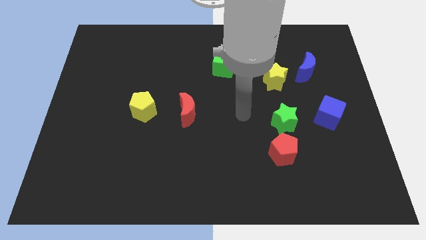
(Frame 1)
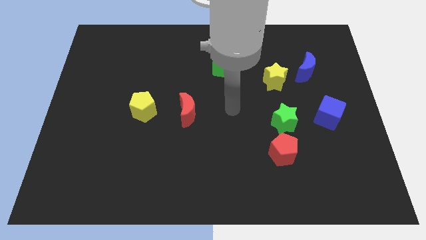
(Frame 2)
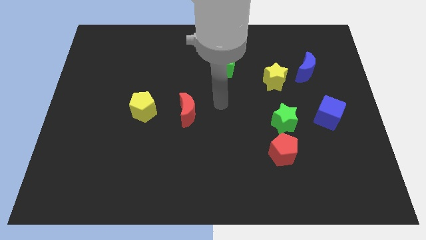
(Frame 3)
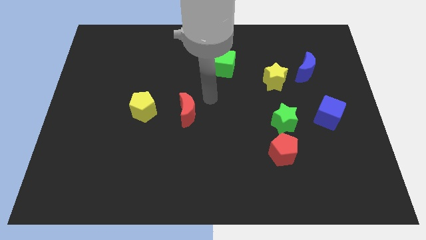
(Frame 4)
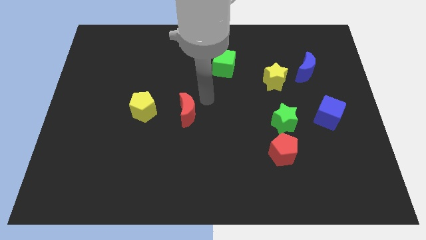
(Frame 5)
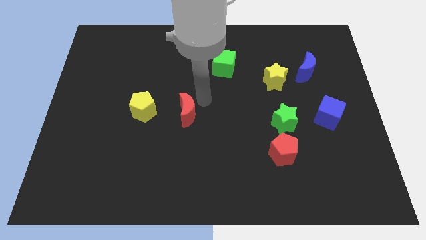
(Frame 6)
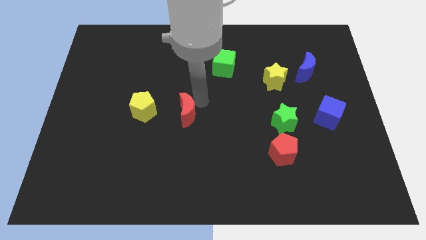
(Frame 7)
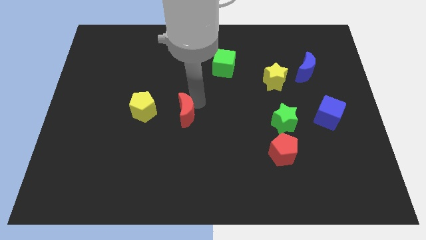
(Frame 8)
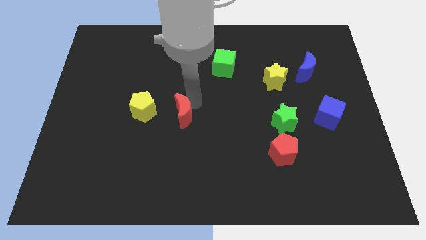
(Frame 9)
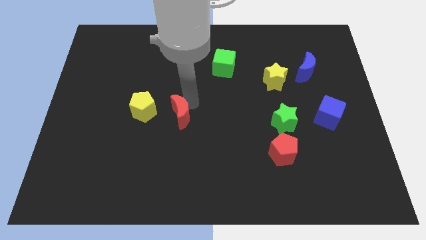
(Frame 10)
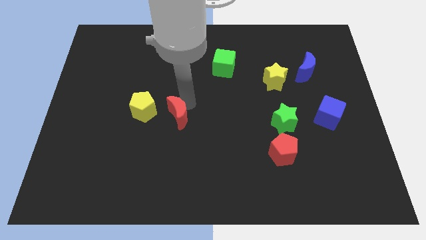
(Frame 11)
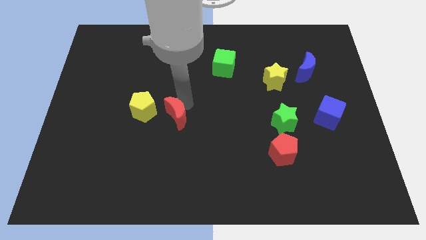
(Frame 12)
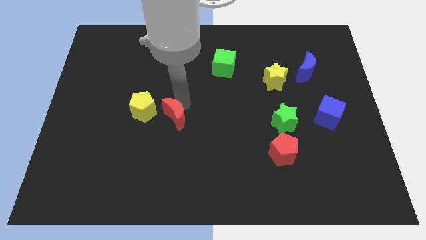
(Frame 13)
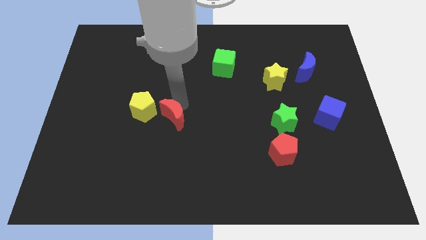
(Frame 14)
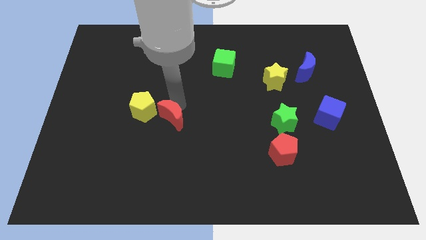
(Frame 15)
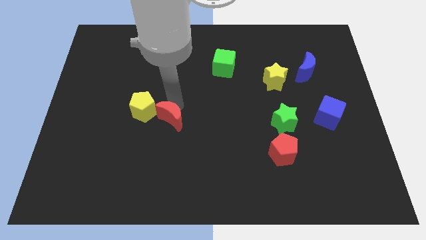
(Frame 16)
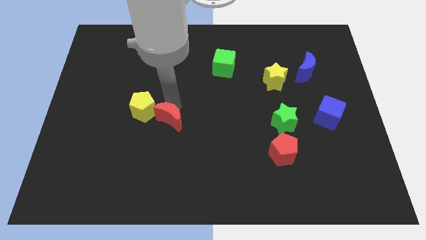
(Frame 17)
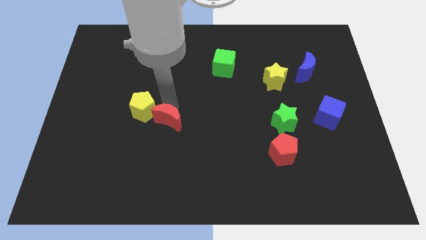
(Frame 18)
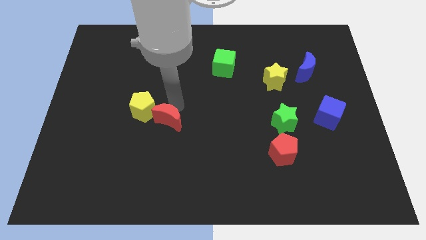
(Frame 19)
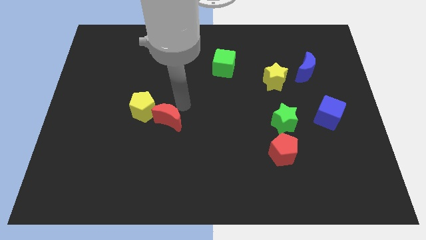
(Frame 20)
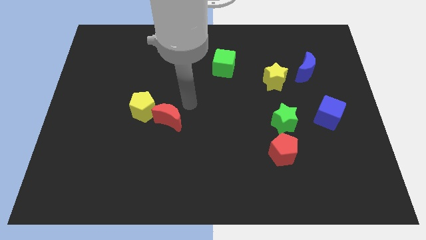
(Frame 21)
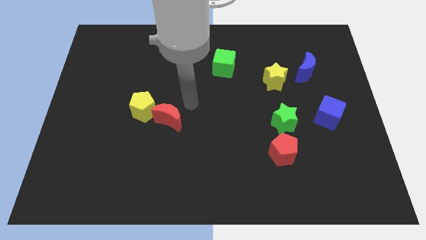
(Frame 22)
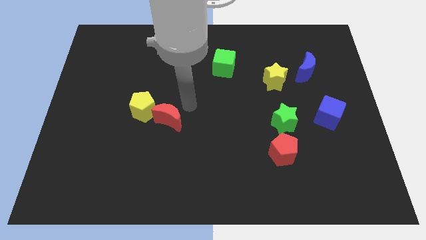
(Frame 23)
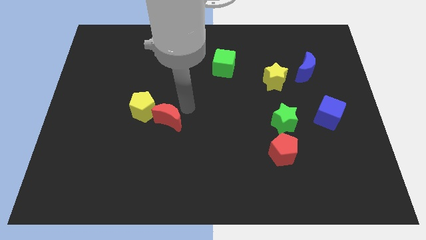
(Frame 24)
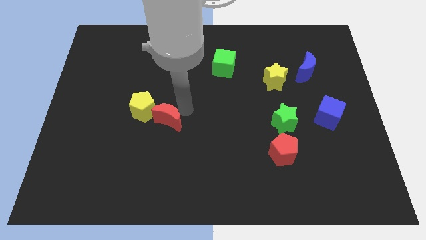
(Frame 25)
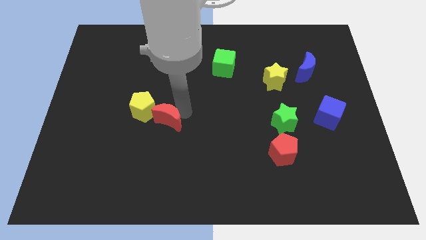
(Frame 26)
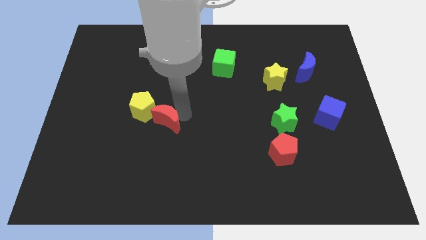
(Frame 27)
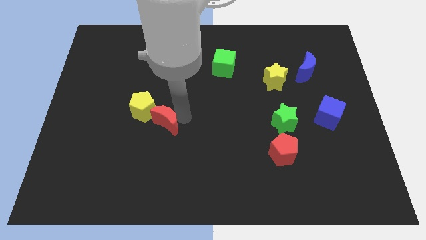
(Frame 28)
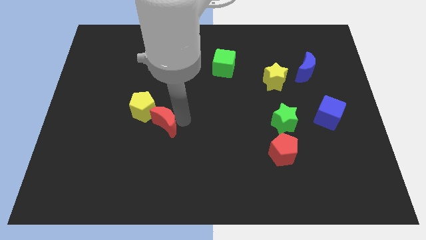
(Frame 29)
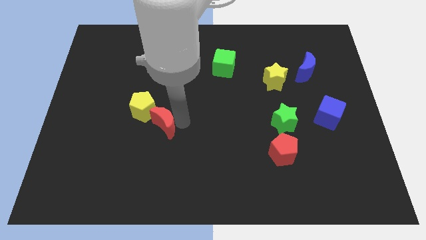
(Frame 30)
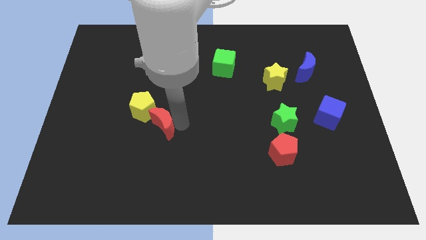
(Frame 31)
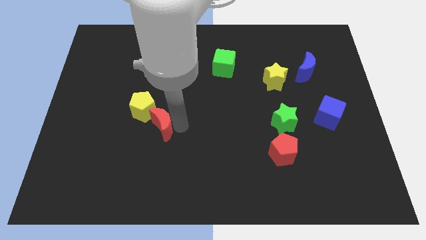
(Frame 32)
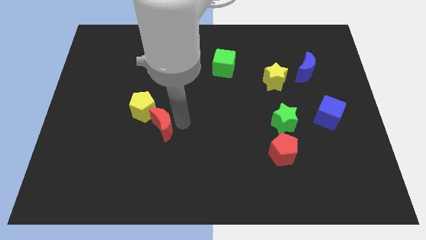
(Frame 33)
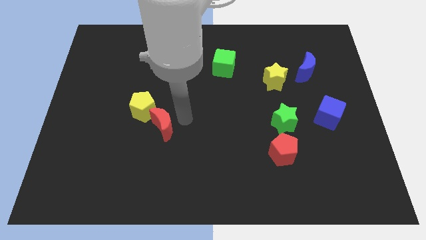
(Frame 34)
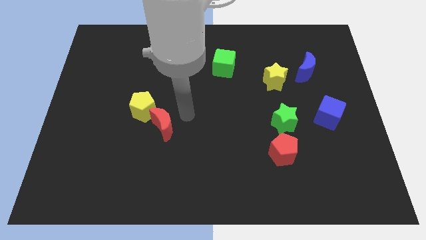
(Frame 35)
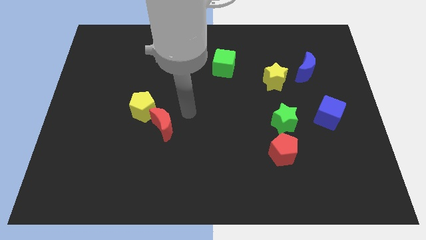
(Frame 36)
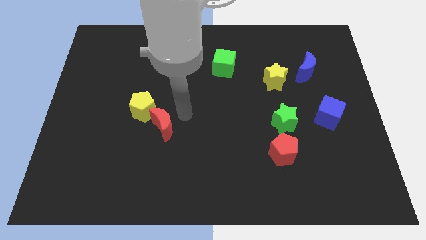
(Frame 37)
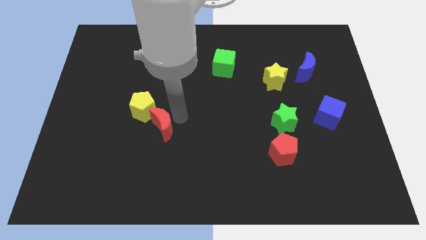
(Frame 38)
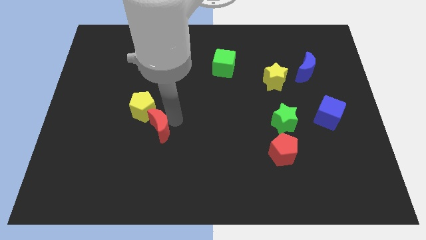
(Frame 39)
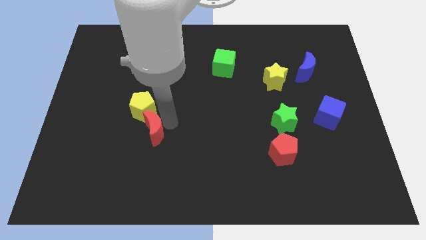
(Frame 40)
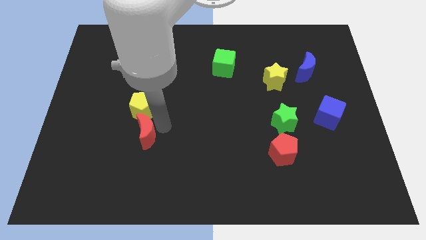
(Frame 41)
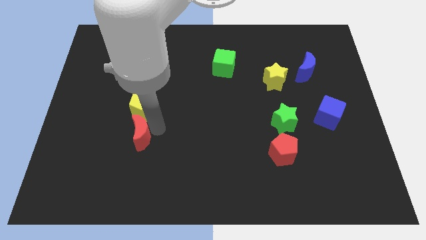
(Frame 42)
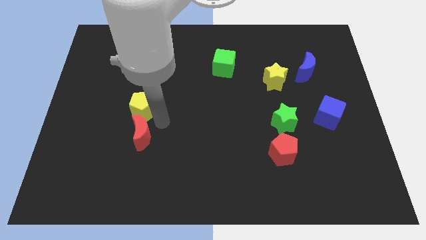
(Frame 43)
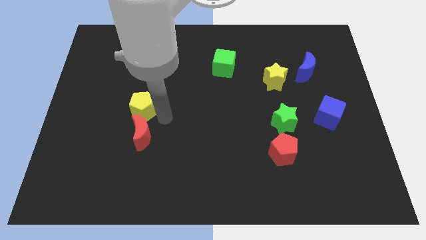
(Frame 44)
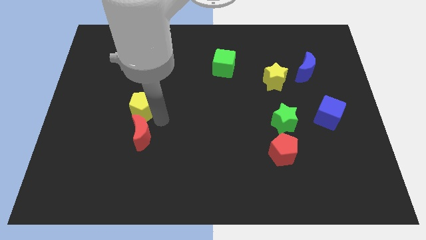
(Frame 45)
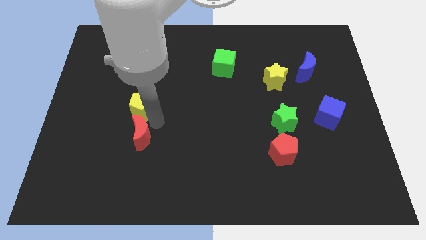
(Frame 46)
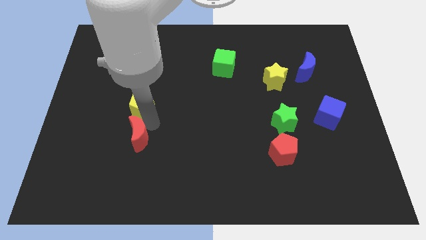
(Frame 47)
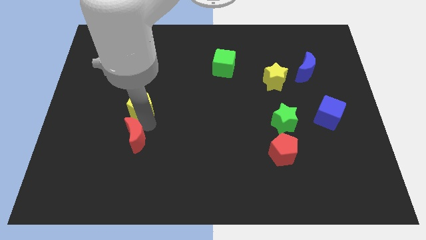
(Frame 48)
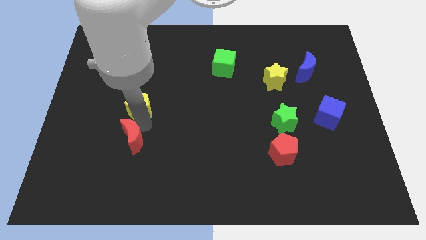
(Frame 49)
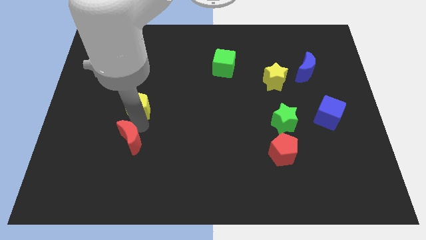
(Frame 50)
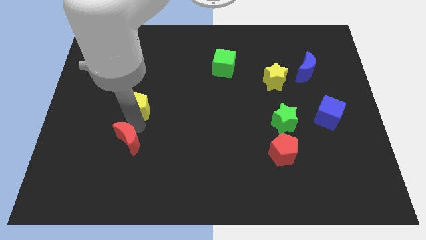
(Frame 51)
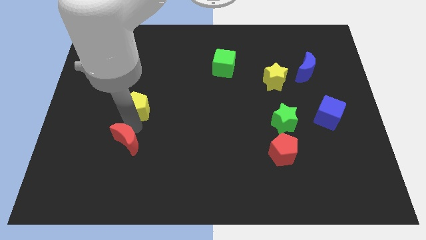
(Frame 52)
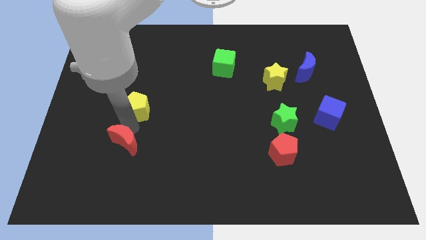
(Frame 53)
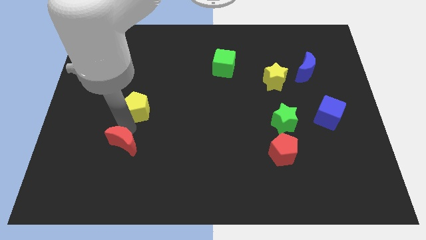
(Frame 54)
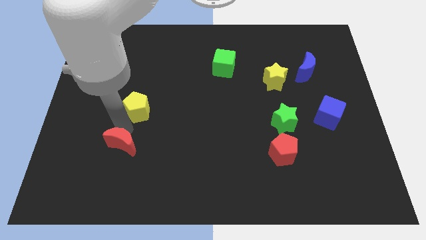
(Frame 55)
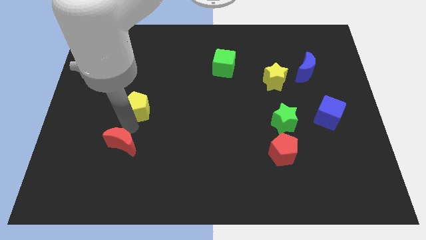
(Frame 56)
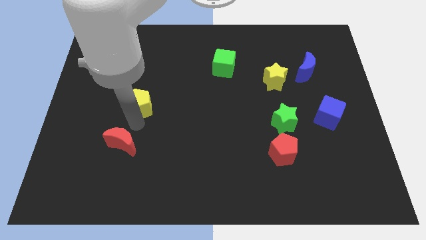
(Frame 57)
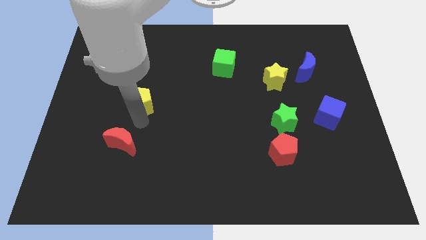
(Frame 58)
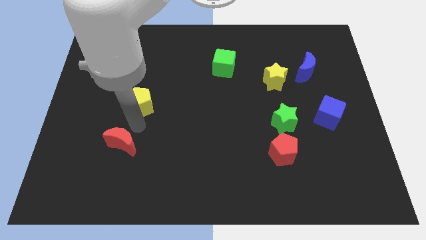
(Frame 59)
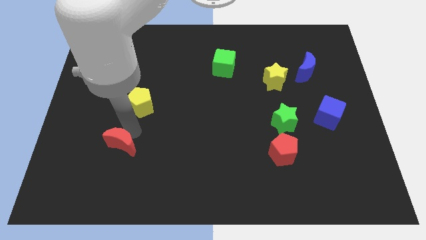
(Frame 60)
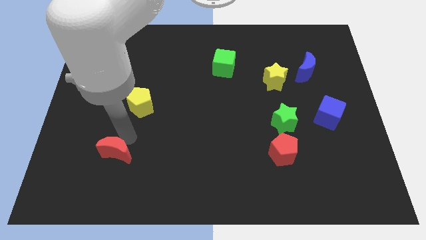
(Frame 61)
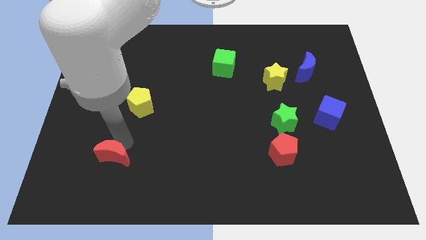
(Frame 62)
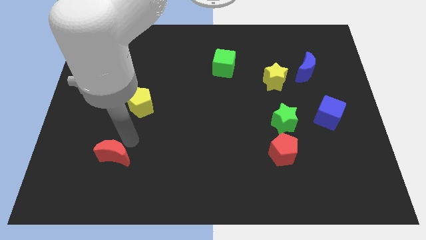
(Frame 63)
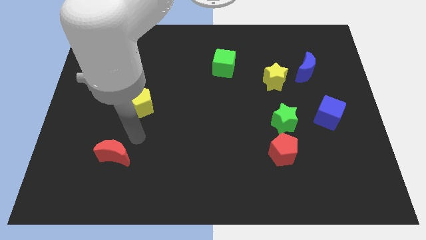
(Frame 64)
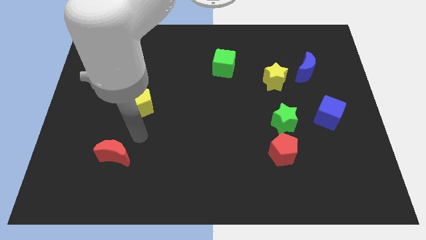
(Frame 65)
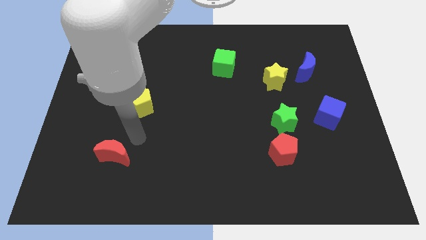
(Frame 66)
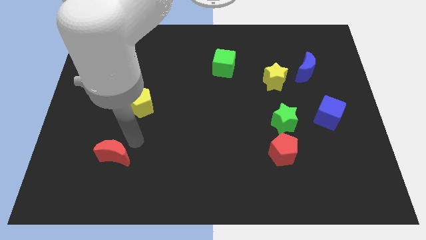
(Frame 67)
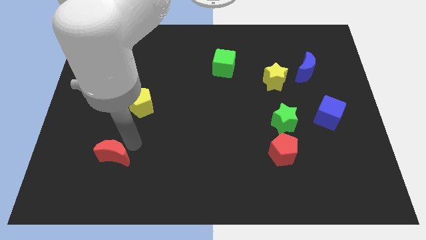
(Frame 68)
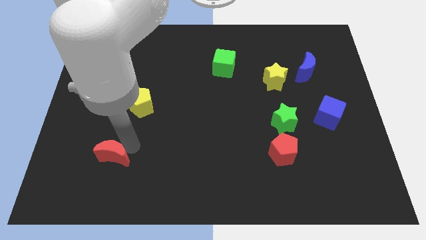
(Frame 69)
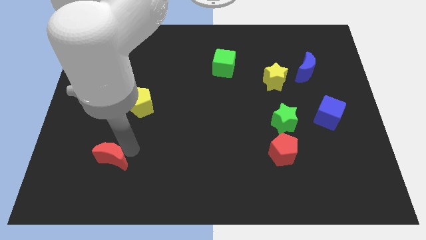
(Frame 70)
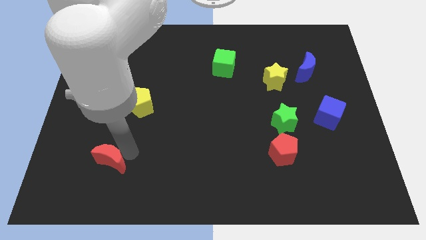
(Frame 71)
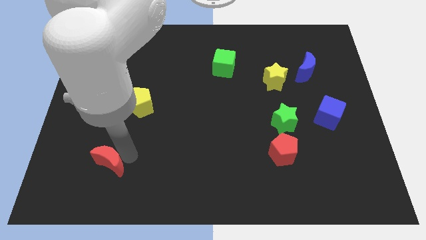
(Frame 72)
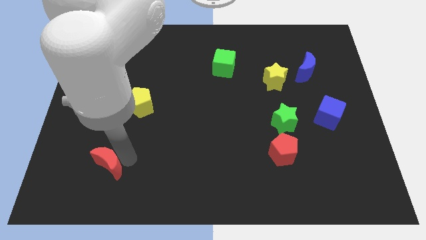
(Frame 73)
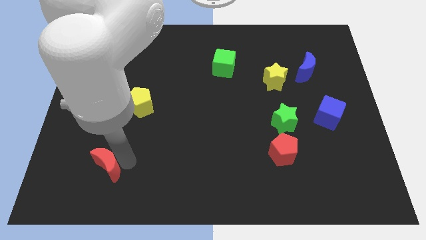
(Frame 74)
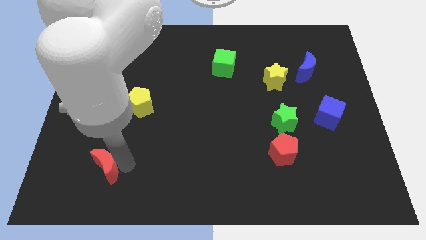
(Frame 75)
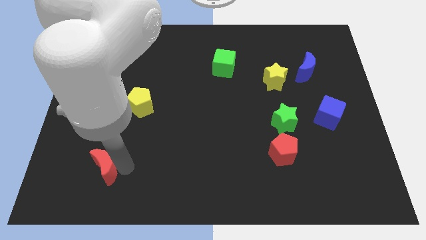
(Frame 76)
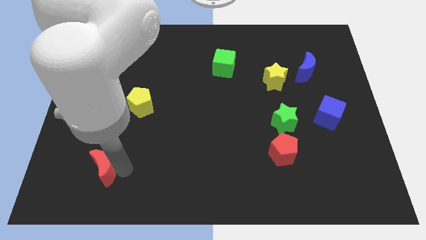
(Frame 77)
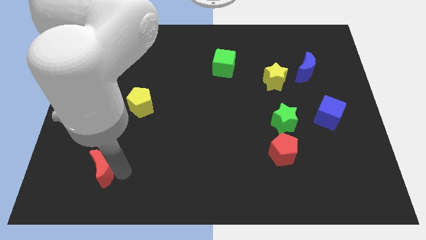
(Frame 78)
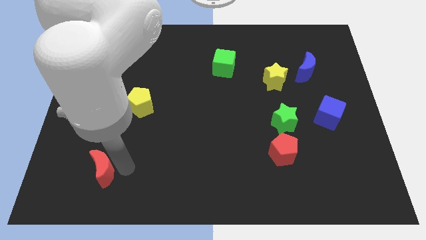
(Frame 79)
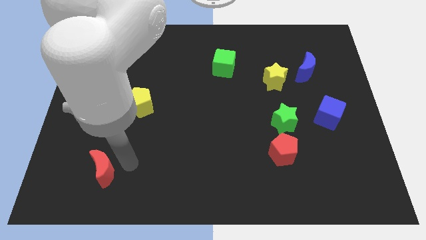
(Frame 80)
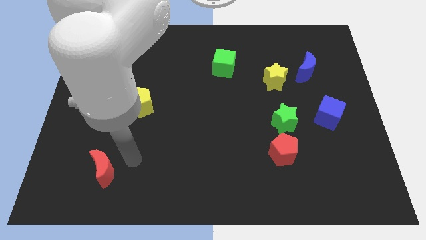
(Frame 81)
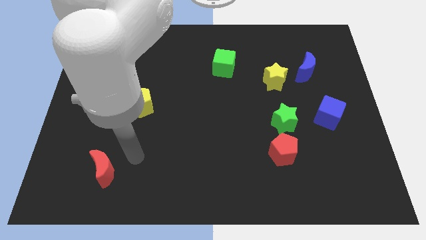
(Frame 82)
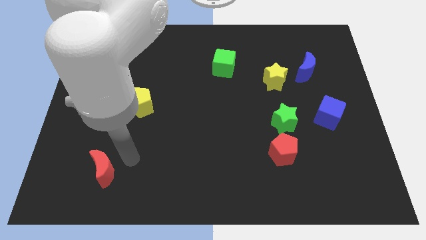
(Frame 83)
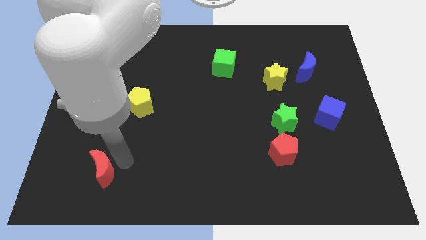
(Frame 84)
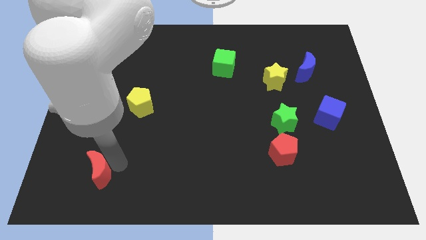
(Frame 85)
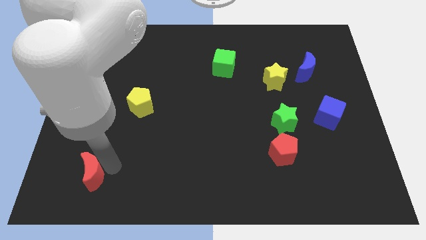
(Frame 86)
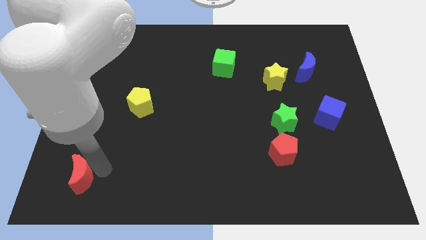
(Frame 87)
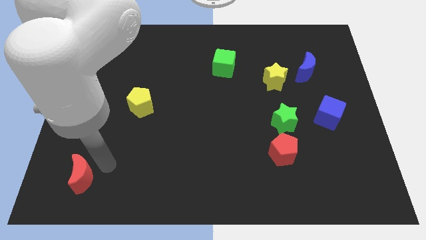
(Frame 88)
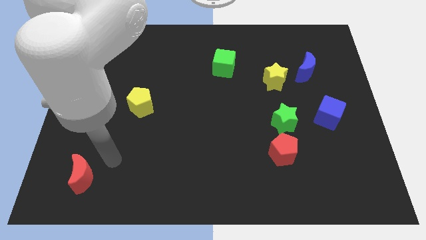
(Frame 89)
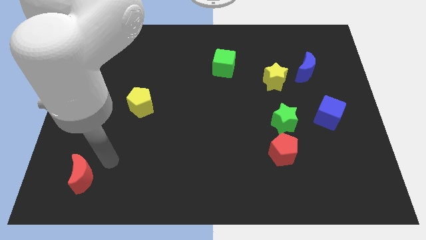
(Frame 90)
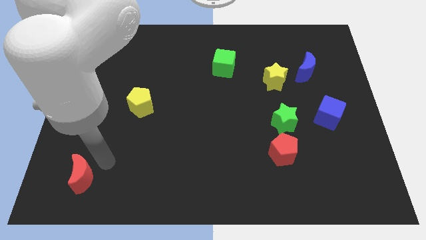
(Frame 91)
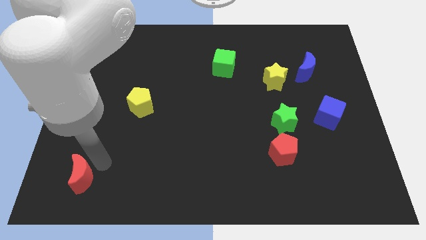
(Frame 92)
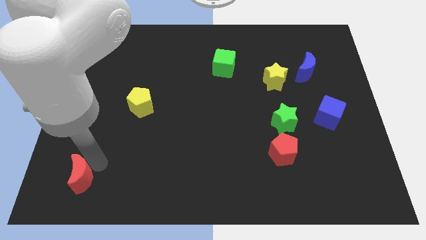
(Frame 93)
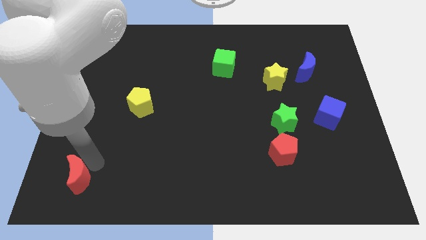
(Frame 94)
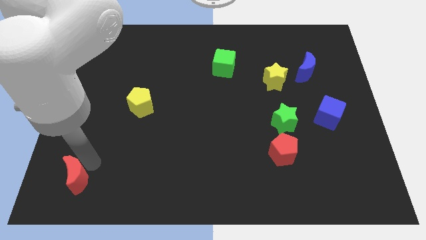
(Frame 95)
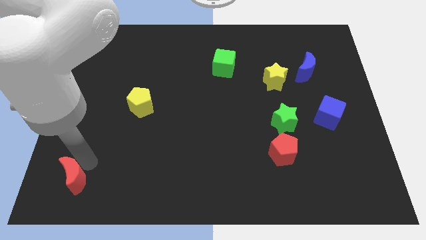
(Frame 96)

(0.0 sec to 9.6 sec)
push the red moon to the bottom left
